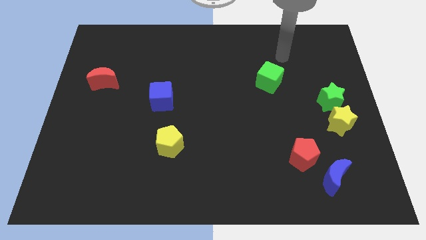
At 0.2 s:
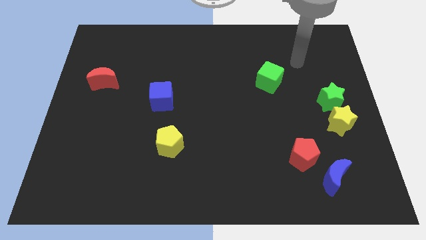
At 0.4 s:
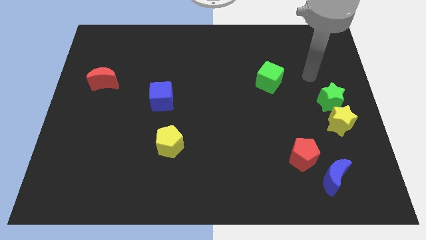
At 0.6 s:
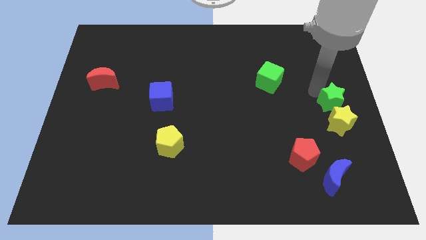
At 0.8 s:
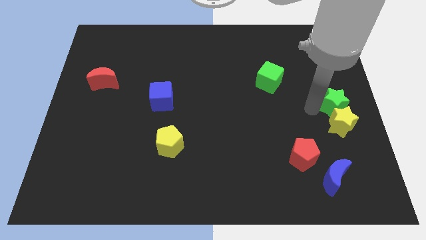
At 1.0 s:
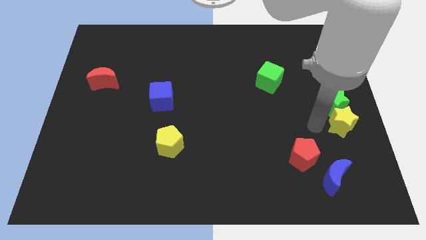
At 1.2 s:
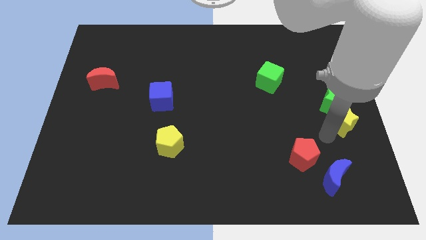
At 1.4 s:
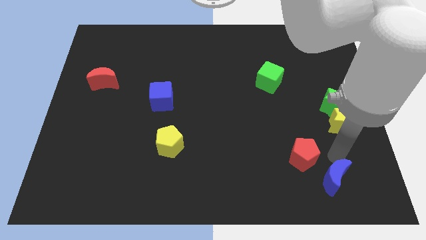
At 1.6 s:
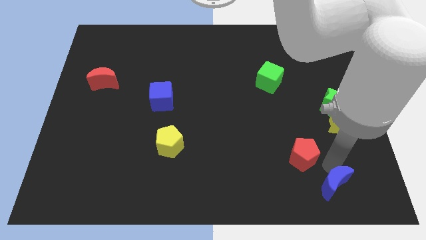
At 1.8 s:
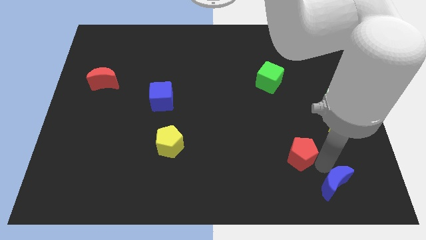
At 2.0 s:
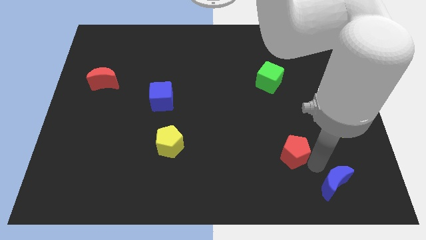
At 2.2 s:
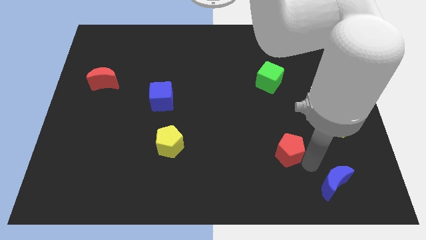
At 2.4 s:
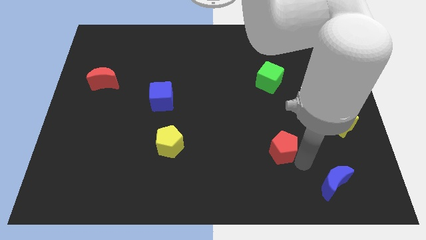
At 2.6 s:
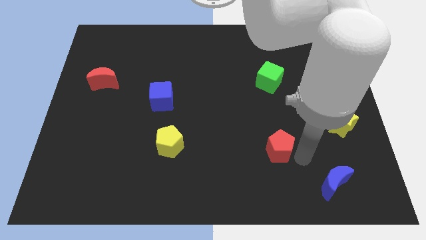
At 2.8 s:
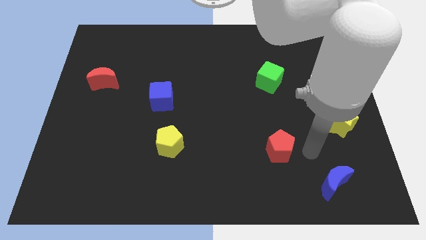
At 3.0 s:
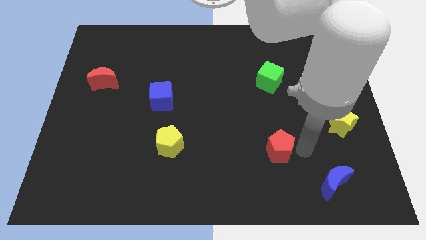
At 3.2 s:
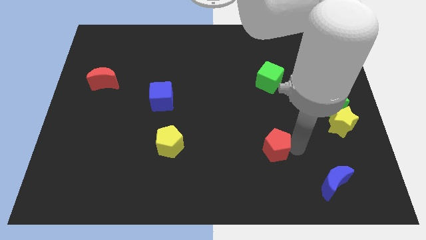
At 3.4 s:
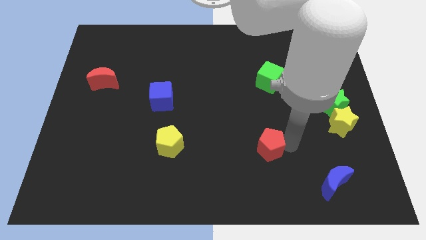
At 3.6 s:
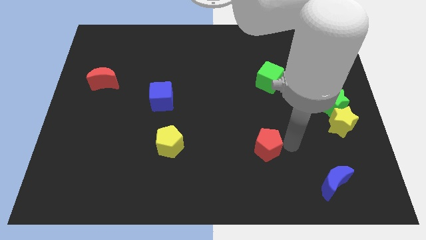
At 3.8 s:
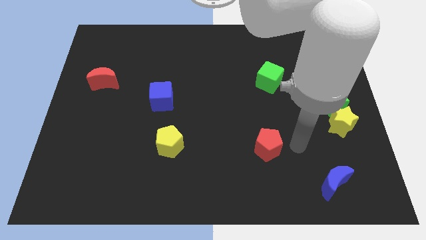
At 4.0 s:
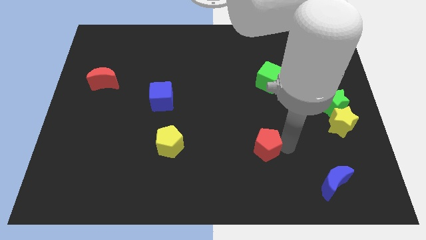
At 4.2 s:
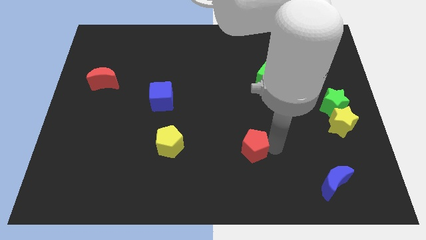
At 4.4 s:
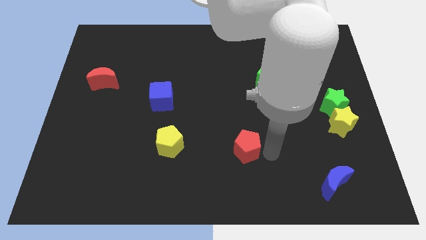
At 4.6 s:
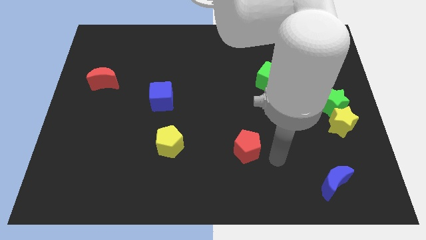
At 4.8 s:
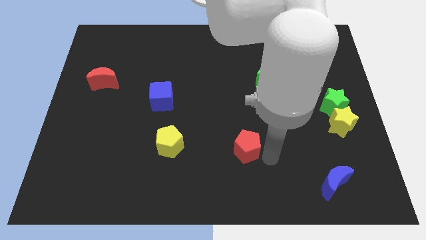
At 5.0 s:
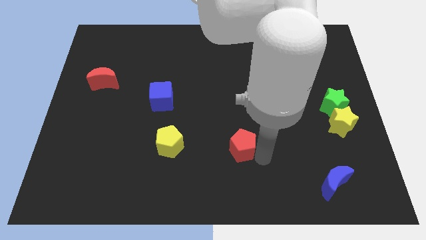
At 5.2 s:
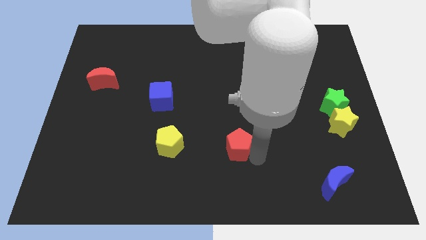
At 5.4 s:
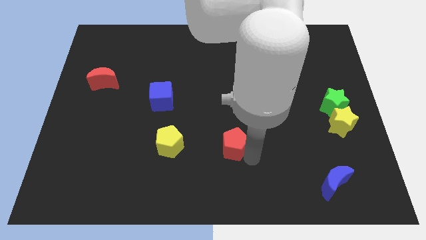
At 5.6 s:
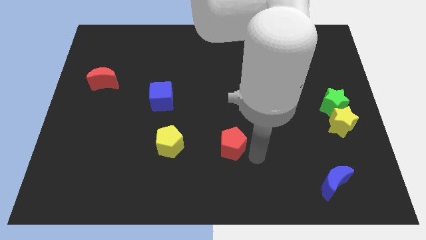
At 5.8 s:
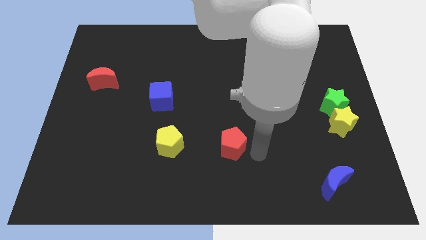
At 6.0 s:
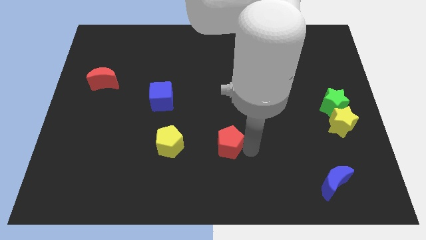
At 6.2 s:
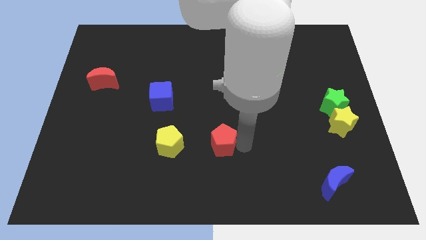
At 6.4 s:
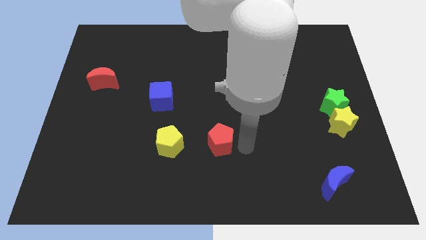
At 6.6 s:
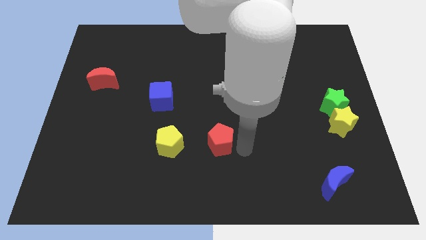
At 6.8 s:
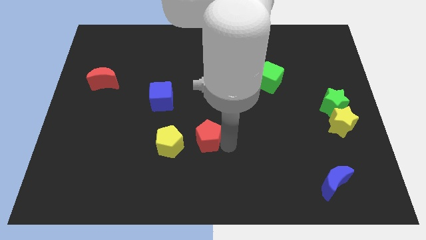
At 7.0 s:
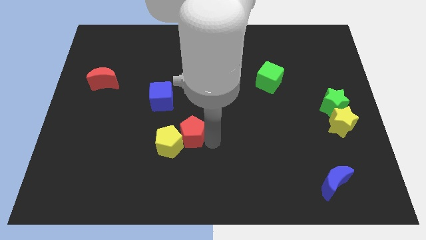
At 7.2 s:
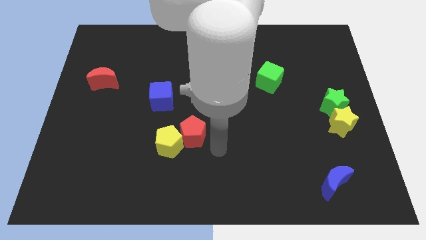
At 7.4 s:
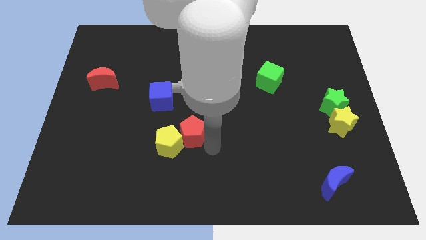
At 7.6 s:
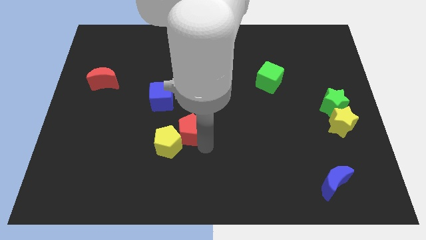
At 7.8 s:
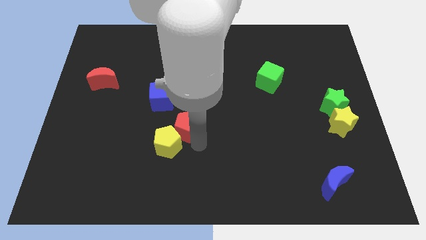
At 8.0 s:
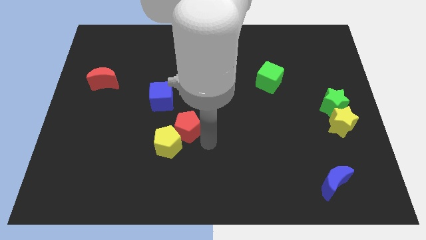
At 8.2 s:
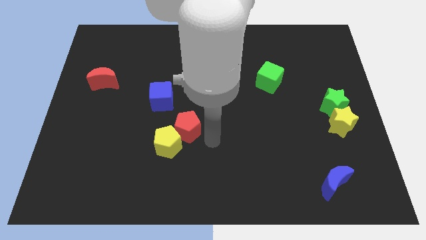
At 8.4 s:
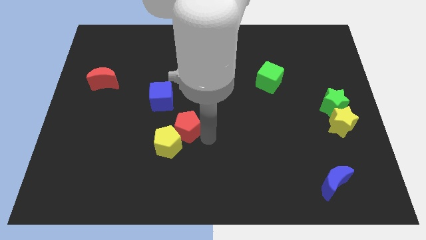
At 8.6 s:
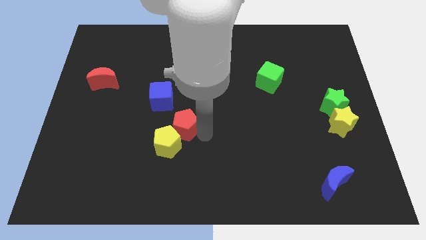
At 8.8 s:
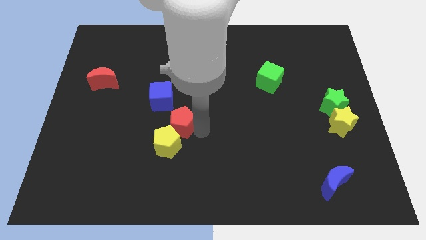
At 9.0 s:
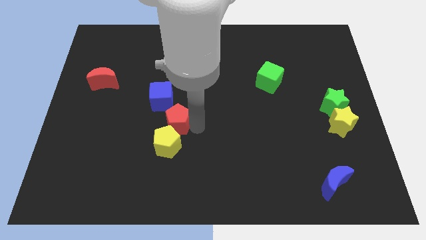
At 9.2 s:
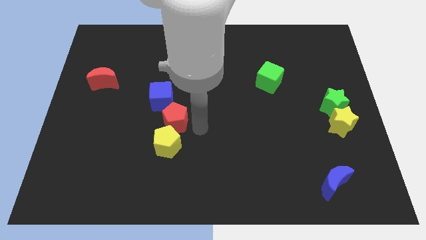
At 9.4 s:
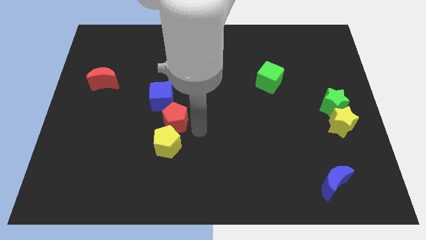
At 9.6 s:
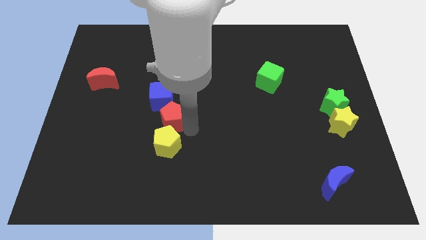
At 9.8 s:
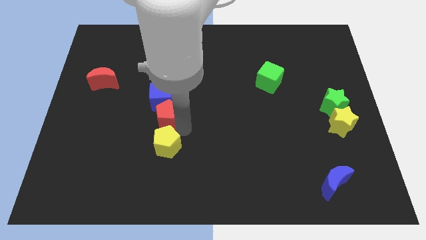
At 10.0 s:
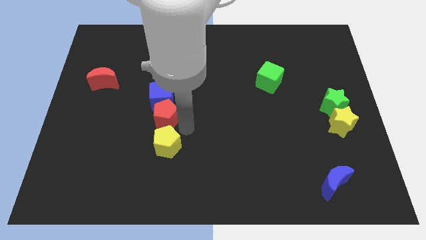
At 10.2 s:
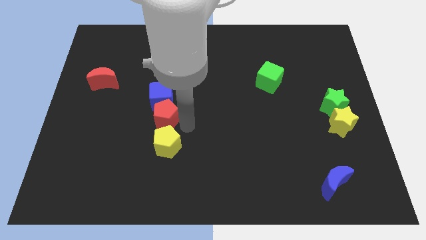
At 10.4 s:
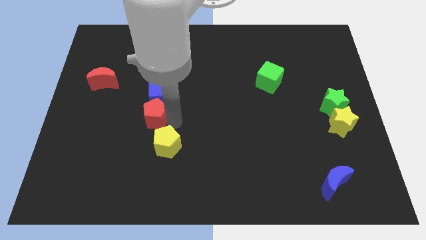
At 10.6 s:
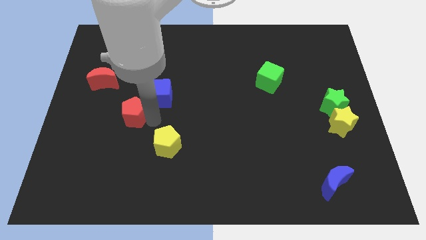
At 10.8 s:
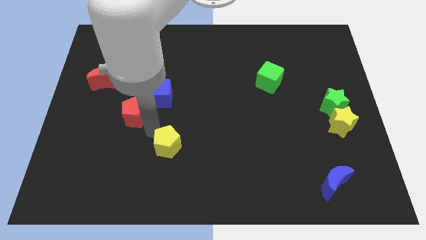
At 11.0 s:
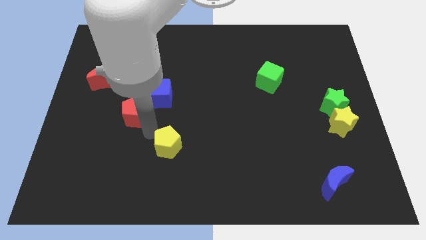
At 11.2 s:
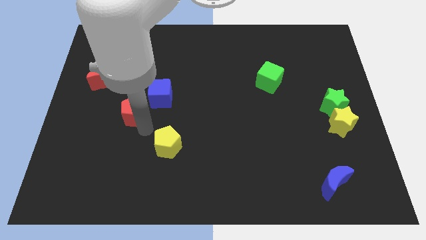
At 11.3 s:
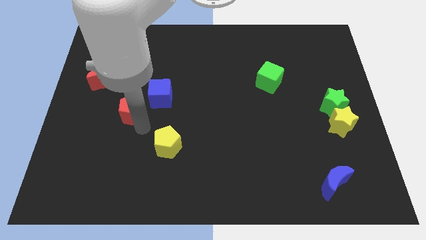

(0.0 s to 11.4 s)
move the red pentagon to the left side of the blue cube

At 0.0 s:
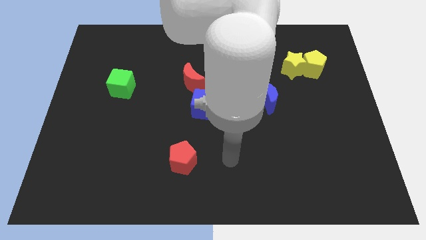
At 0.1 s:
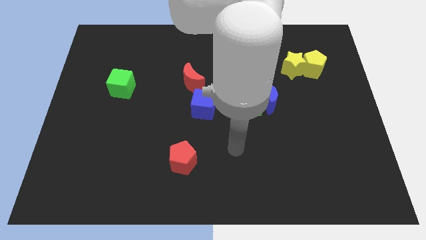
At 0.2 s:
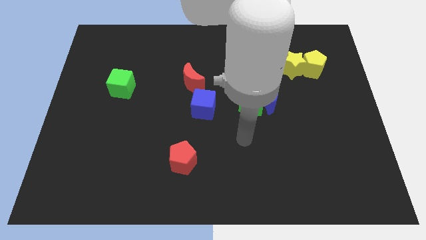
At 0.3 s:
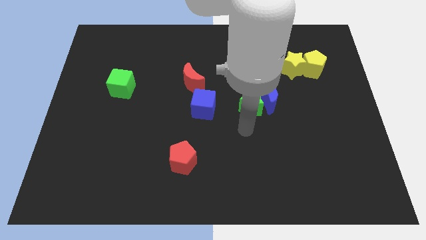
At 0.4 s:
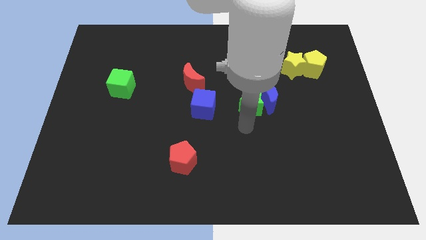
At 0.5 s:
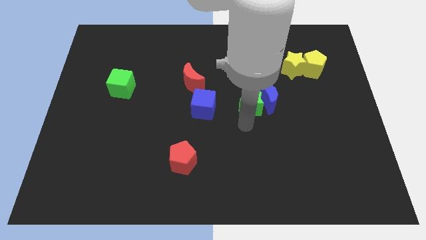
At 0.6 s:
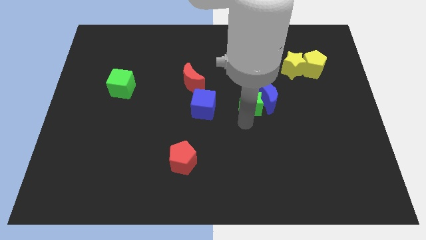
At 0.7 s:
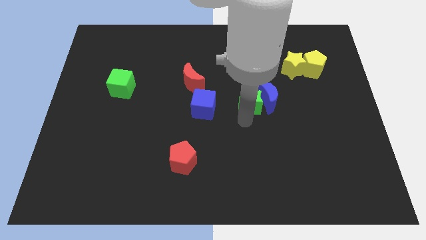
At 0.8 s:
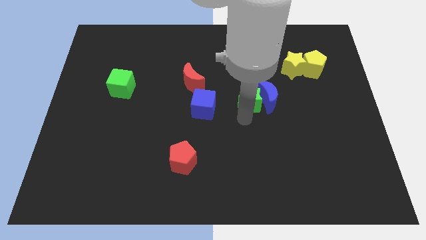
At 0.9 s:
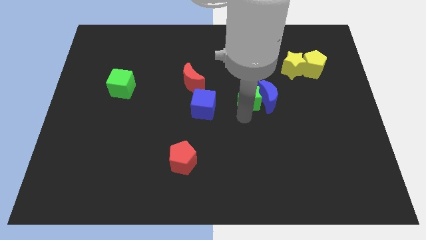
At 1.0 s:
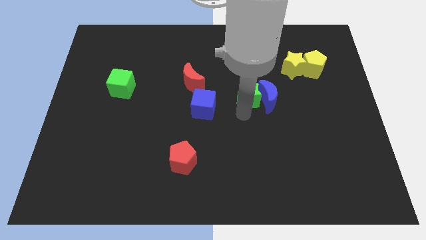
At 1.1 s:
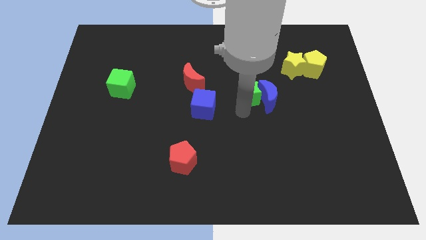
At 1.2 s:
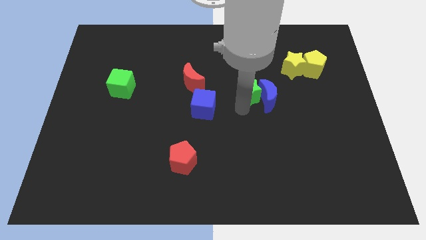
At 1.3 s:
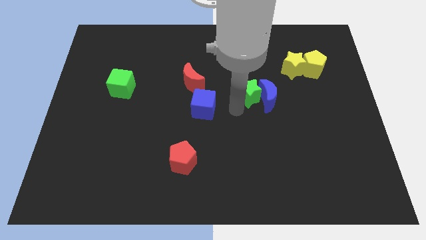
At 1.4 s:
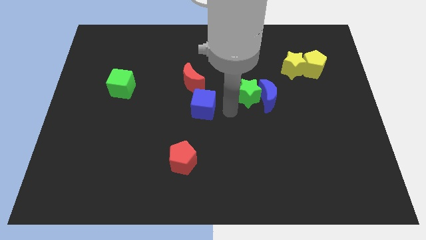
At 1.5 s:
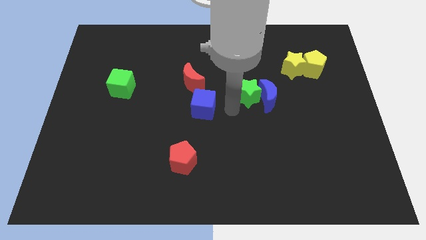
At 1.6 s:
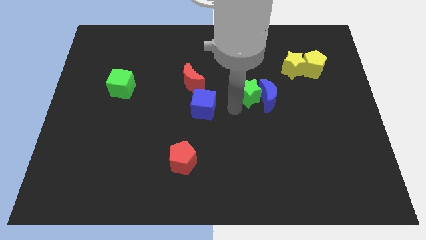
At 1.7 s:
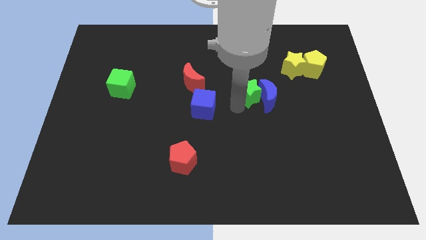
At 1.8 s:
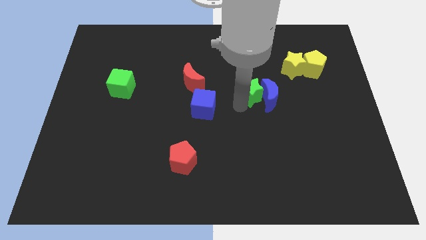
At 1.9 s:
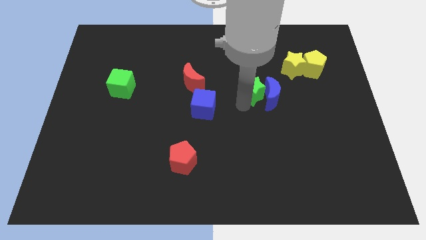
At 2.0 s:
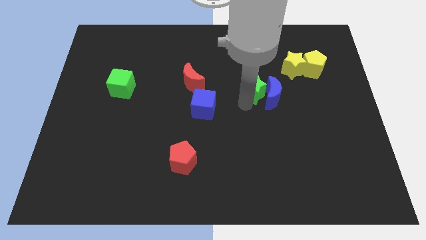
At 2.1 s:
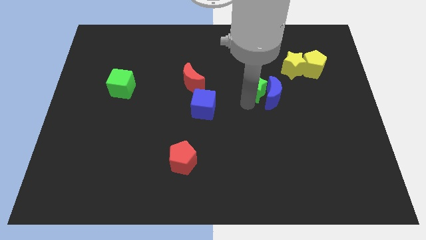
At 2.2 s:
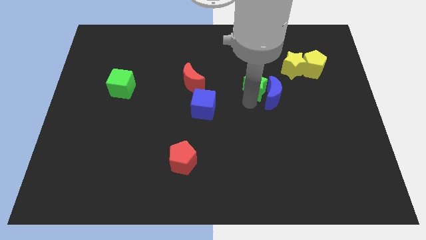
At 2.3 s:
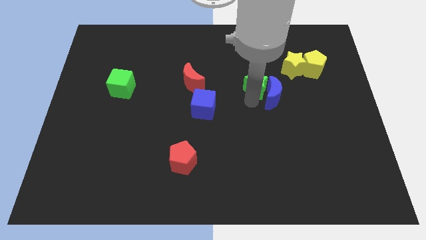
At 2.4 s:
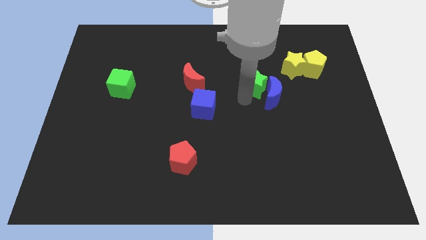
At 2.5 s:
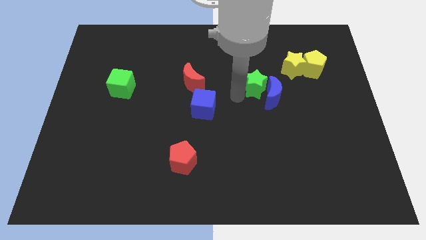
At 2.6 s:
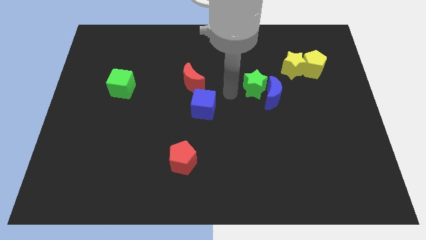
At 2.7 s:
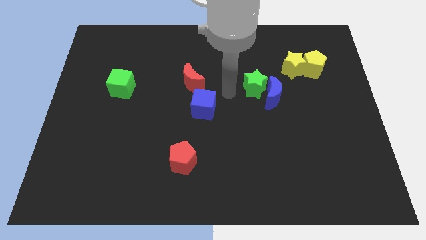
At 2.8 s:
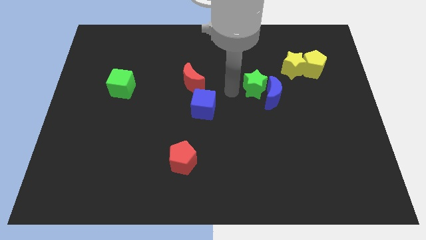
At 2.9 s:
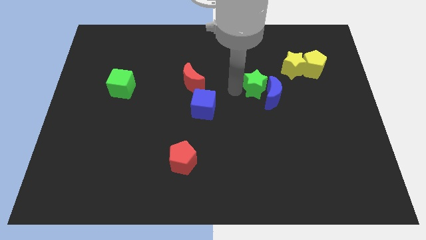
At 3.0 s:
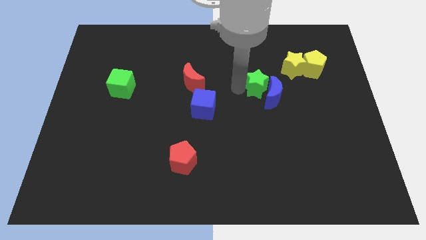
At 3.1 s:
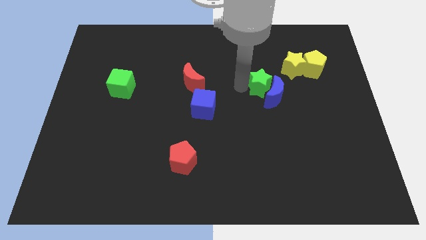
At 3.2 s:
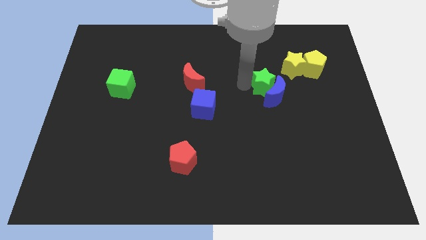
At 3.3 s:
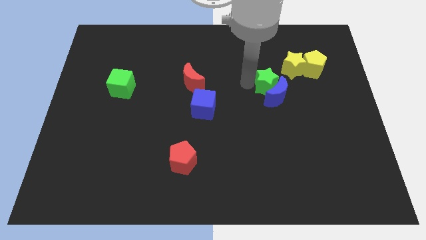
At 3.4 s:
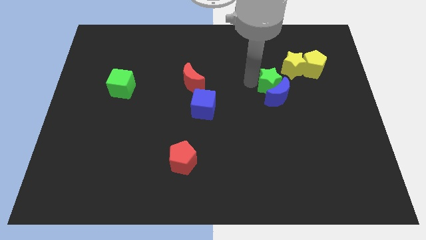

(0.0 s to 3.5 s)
move the green star to the top right side of the blue moon
